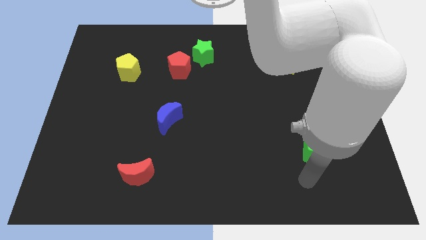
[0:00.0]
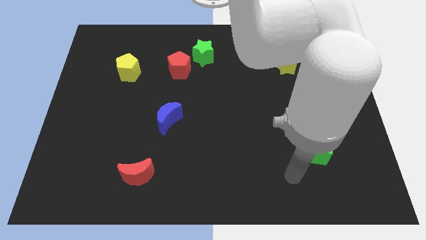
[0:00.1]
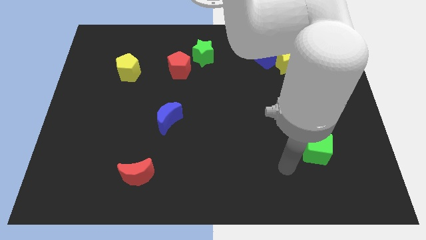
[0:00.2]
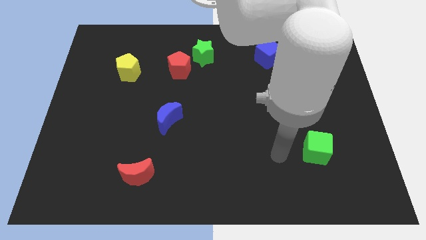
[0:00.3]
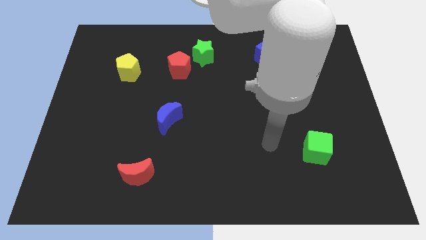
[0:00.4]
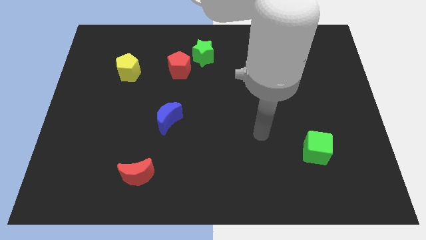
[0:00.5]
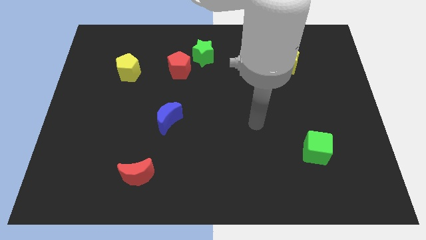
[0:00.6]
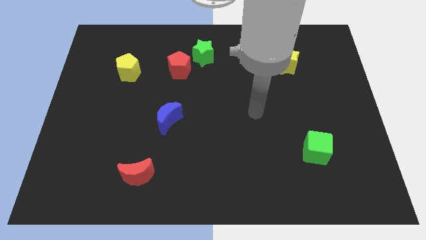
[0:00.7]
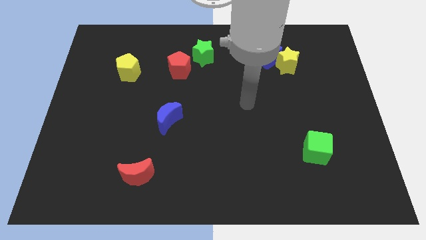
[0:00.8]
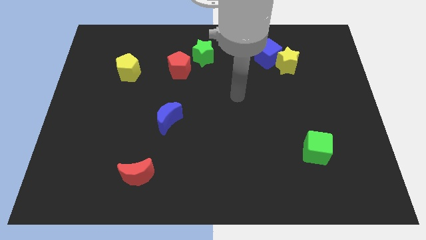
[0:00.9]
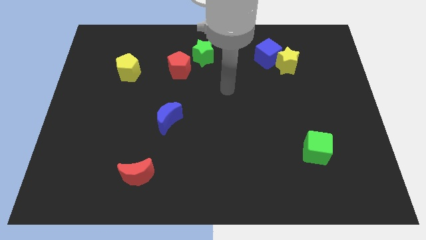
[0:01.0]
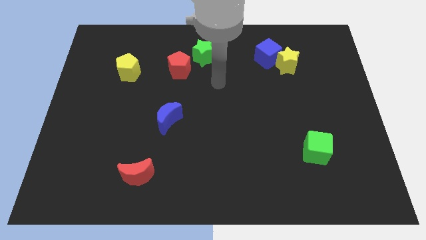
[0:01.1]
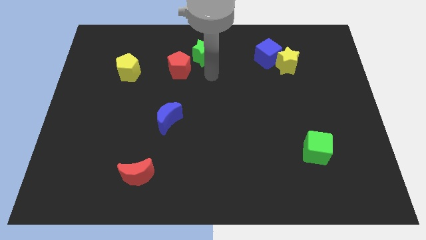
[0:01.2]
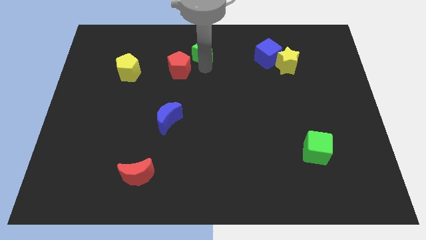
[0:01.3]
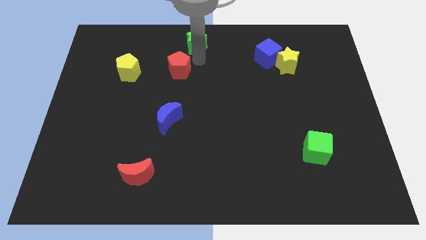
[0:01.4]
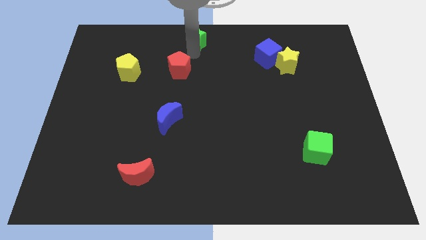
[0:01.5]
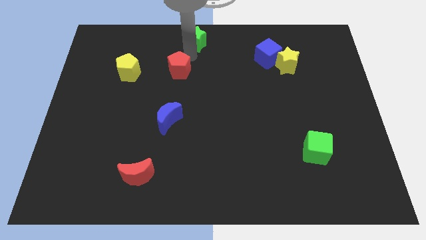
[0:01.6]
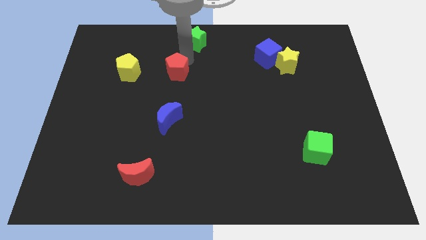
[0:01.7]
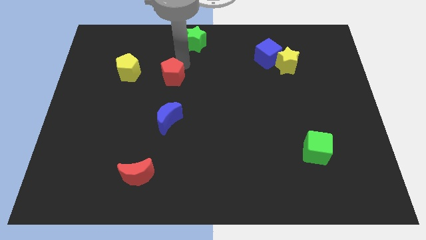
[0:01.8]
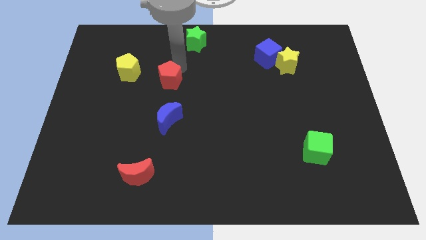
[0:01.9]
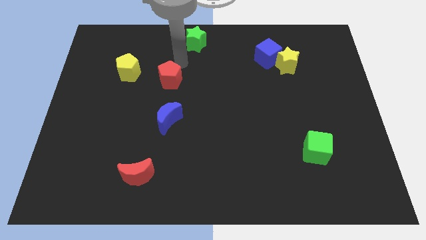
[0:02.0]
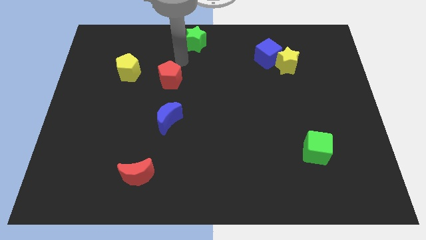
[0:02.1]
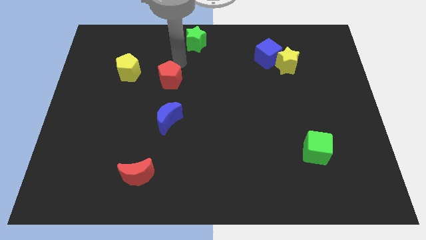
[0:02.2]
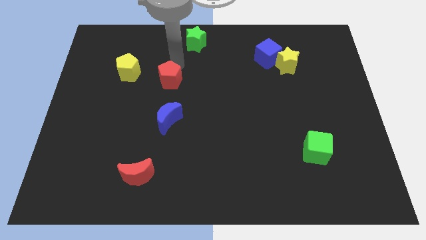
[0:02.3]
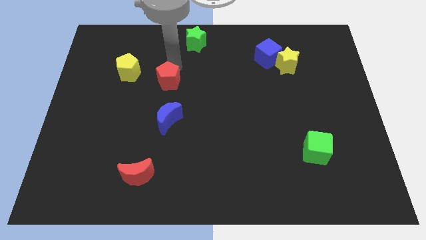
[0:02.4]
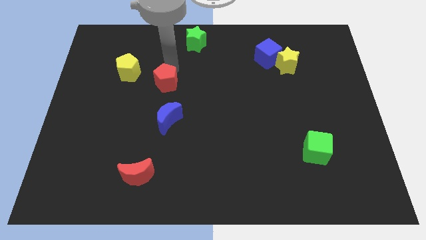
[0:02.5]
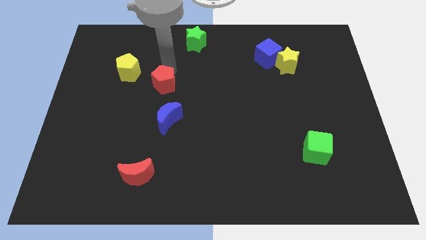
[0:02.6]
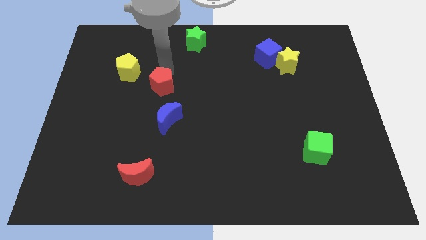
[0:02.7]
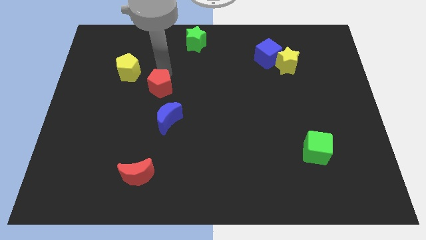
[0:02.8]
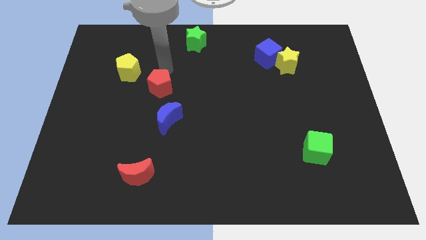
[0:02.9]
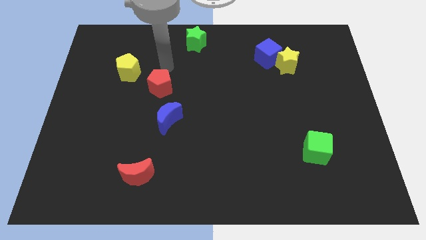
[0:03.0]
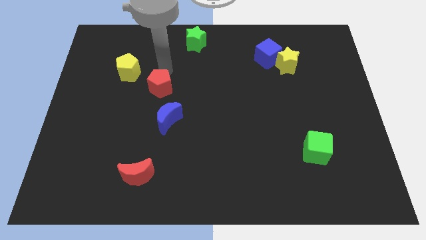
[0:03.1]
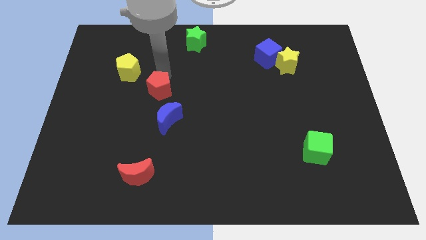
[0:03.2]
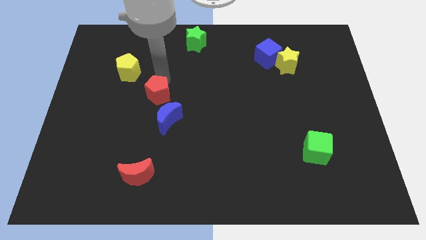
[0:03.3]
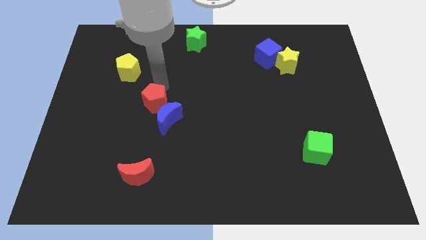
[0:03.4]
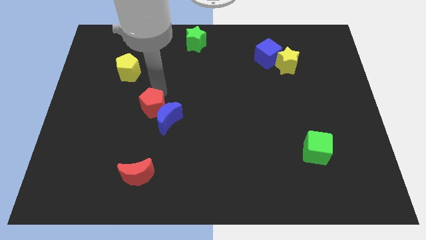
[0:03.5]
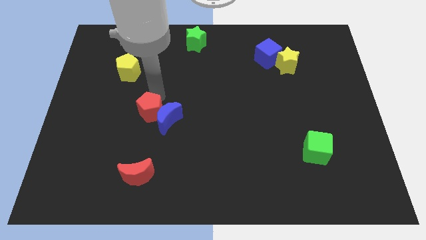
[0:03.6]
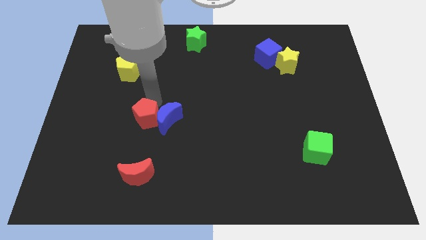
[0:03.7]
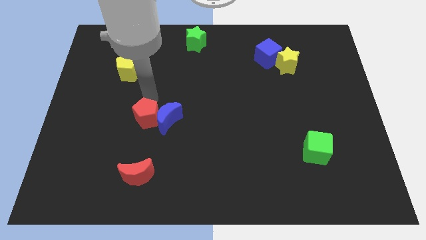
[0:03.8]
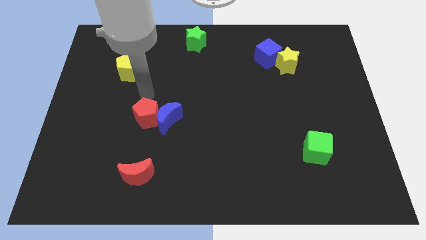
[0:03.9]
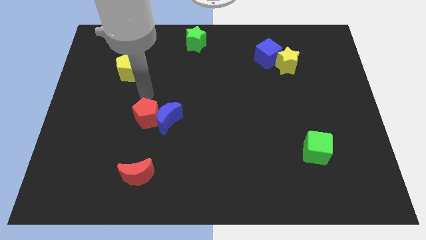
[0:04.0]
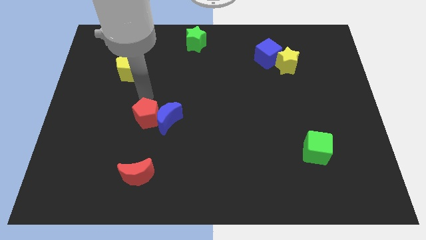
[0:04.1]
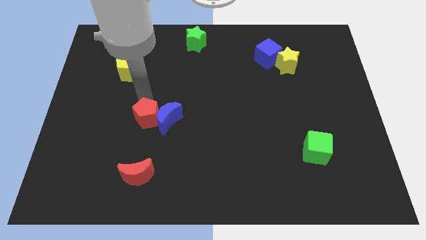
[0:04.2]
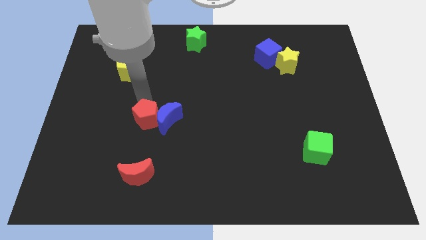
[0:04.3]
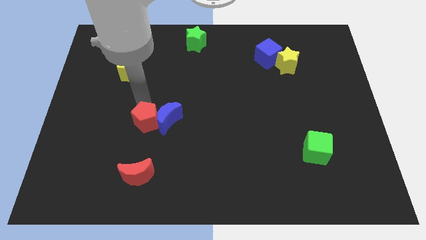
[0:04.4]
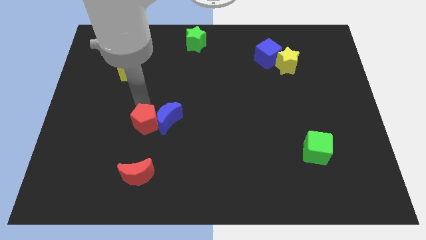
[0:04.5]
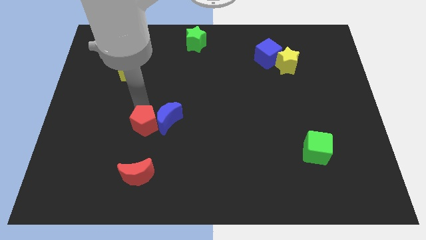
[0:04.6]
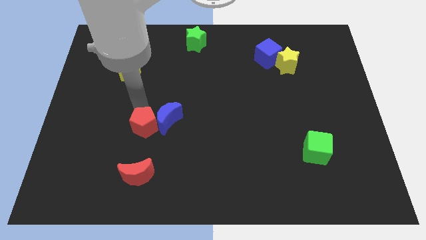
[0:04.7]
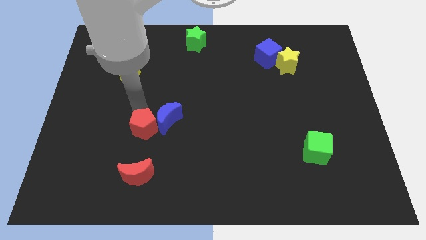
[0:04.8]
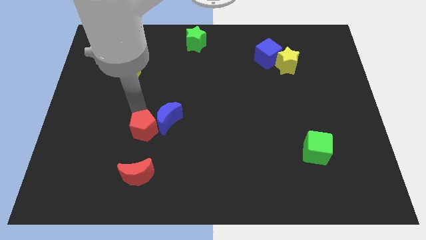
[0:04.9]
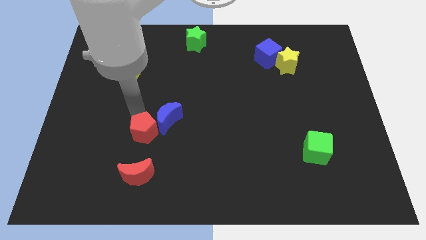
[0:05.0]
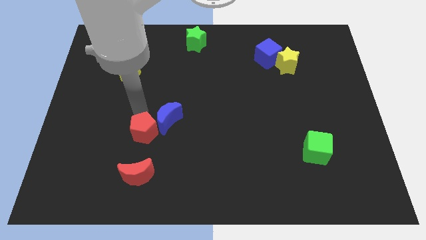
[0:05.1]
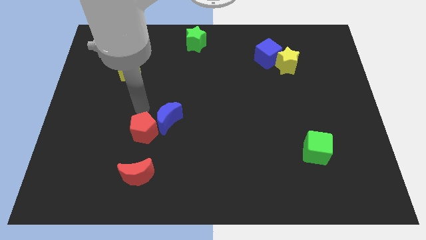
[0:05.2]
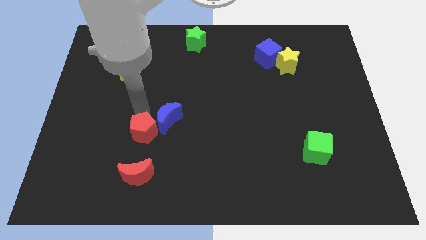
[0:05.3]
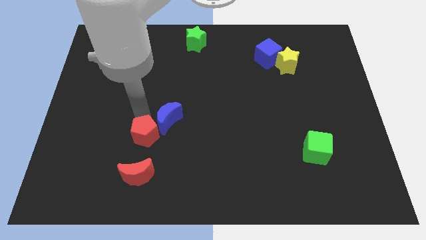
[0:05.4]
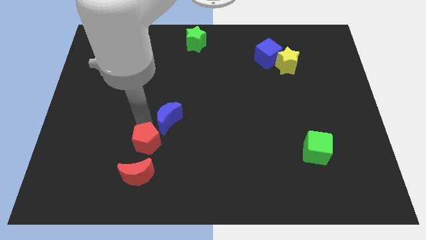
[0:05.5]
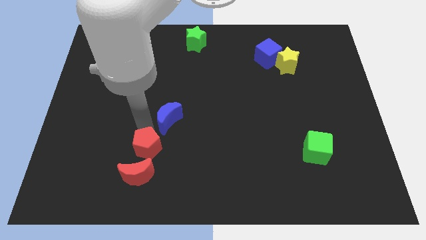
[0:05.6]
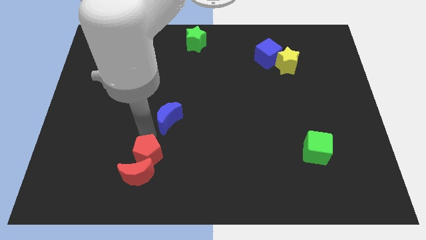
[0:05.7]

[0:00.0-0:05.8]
put the red pentagon next to the red moon

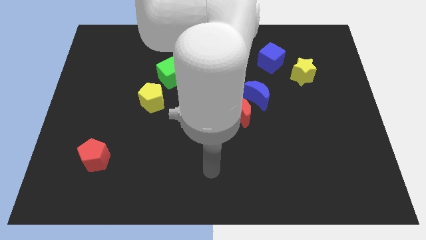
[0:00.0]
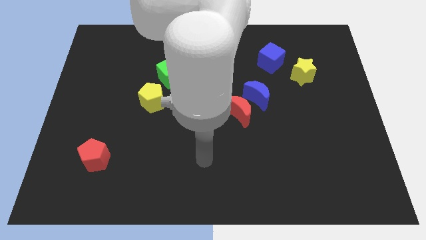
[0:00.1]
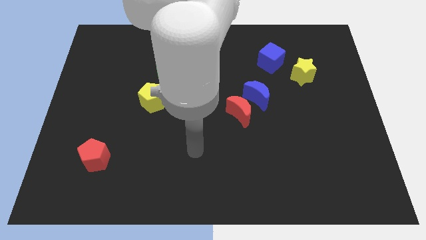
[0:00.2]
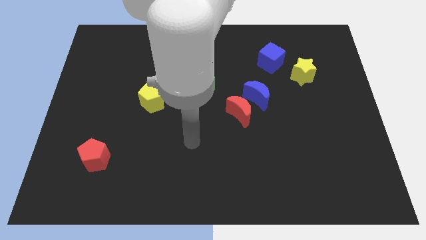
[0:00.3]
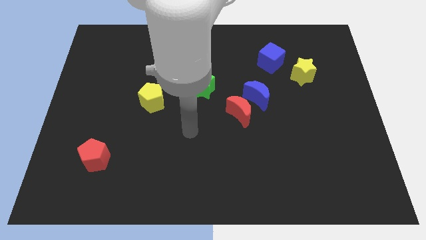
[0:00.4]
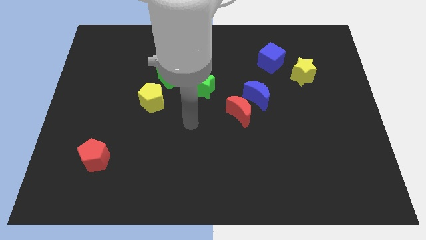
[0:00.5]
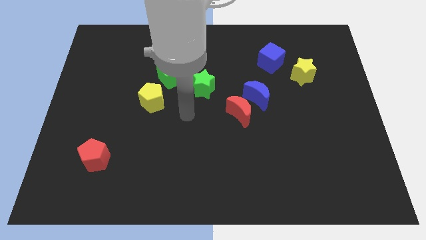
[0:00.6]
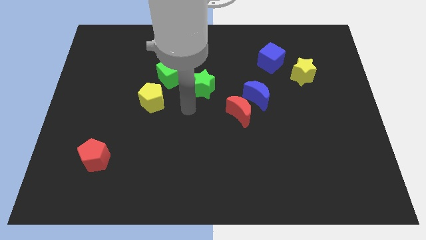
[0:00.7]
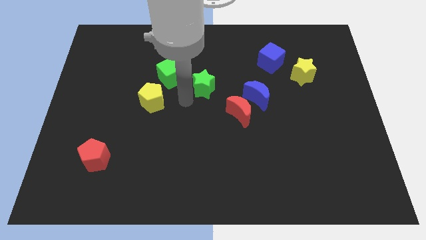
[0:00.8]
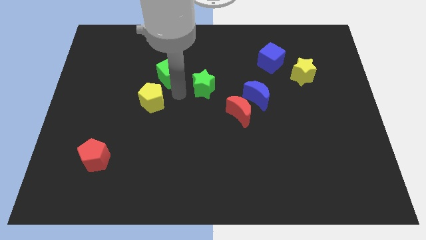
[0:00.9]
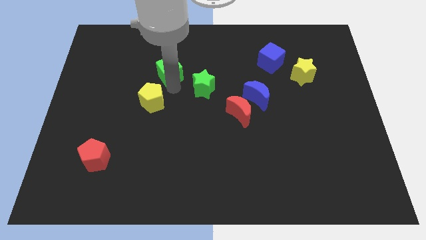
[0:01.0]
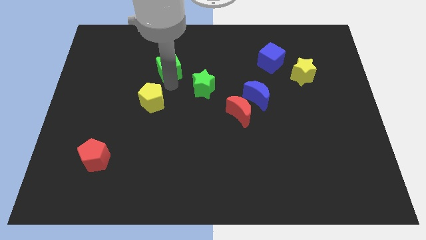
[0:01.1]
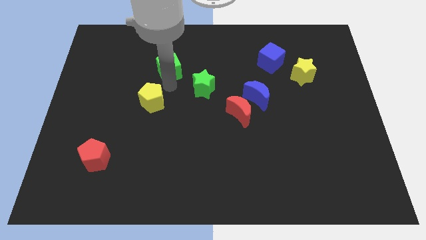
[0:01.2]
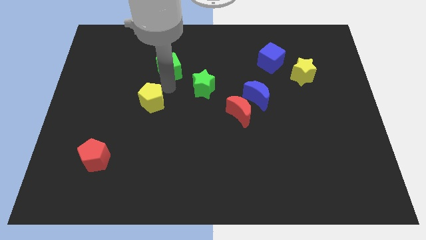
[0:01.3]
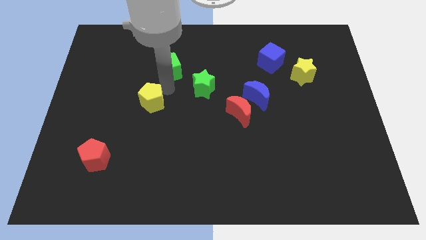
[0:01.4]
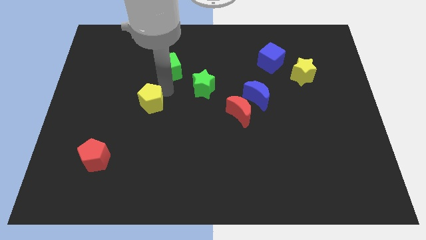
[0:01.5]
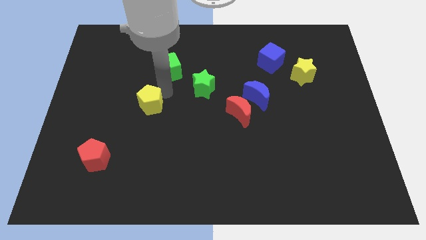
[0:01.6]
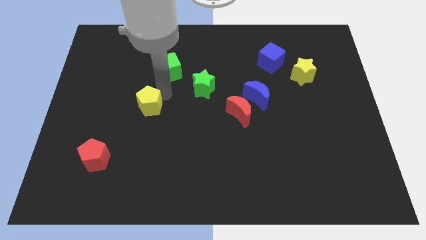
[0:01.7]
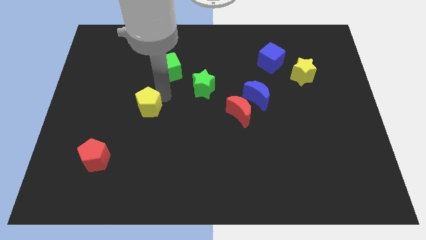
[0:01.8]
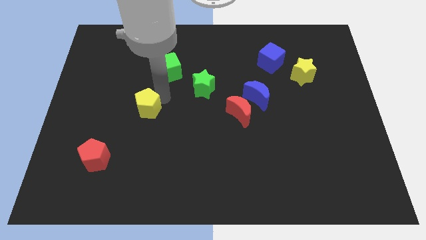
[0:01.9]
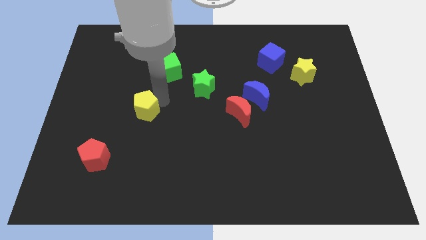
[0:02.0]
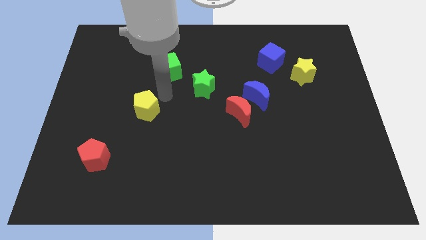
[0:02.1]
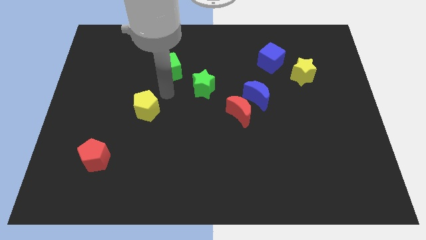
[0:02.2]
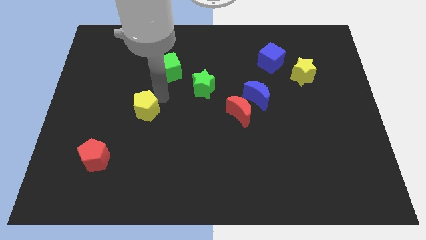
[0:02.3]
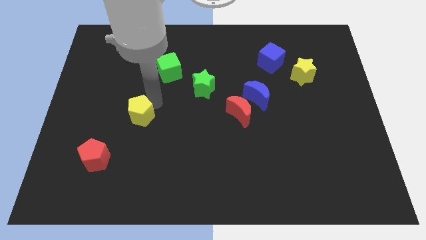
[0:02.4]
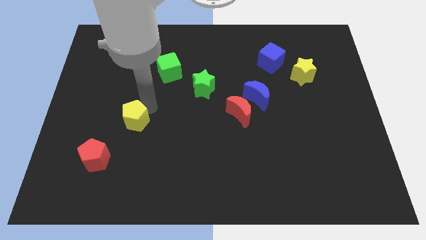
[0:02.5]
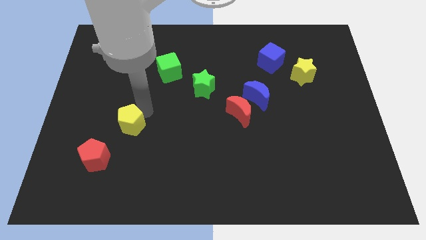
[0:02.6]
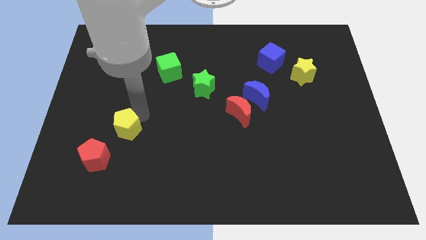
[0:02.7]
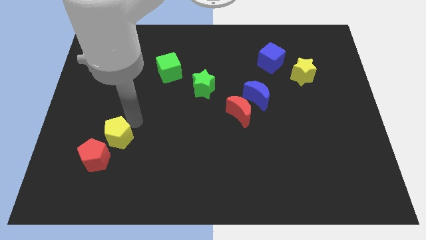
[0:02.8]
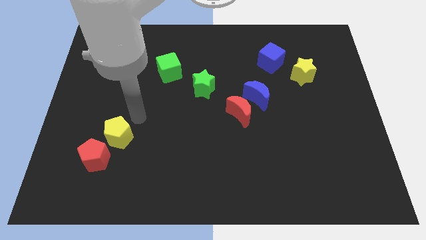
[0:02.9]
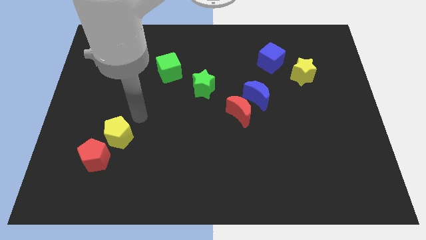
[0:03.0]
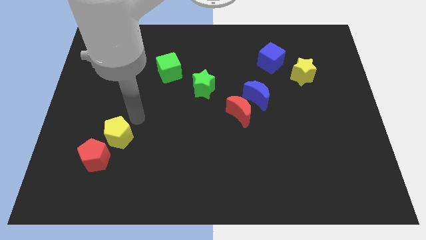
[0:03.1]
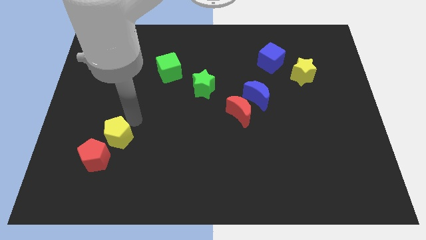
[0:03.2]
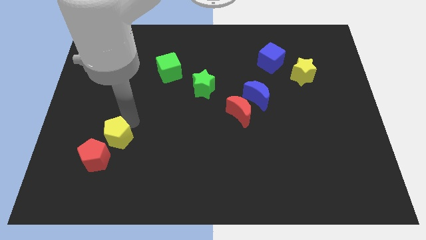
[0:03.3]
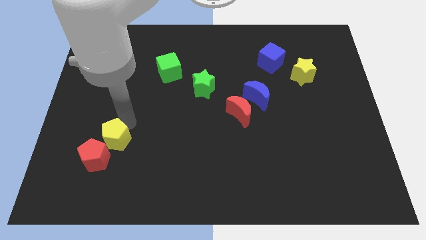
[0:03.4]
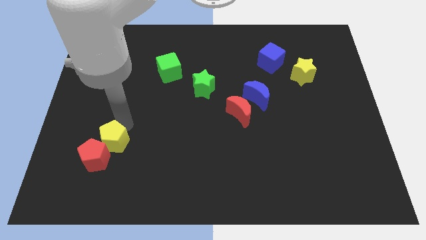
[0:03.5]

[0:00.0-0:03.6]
push the yellow pentagon to the red pentagon
